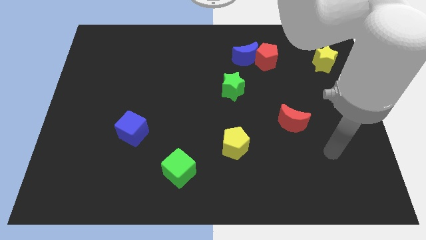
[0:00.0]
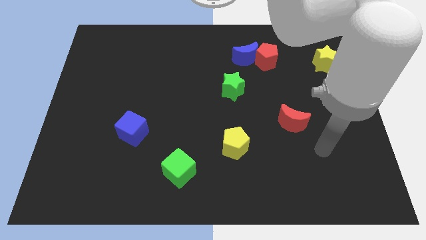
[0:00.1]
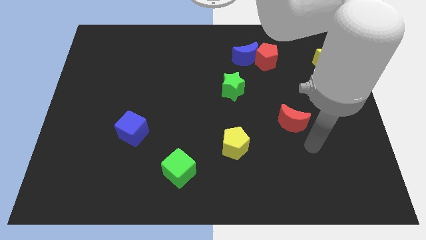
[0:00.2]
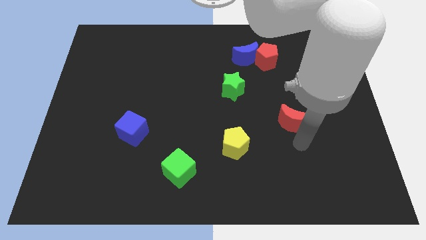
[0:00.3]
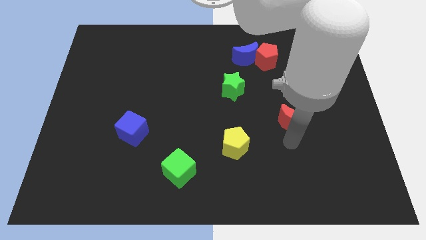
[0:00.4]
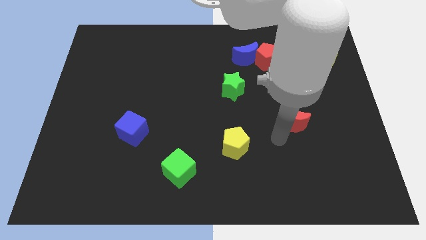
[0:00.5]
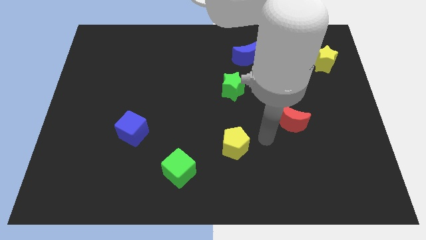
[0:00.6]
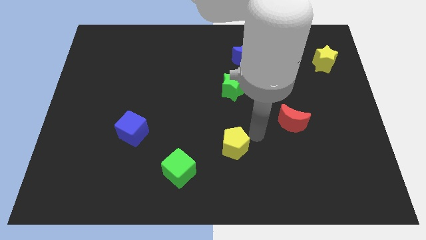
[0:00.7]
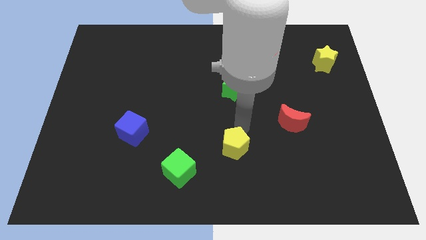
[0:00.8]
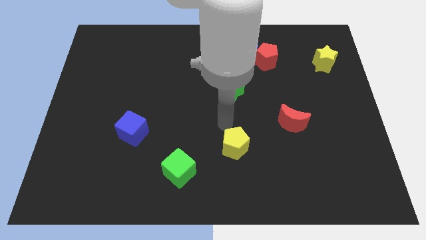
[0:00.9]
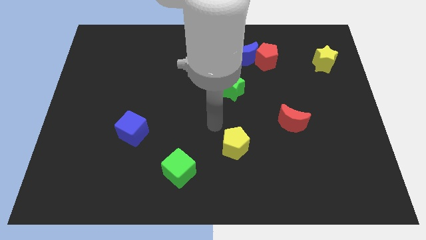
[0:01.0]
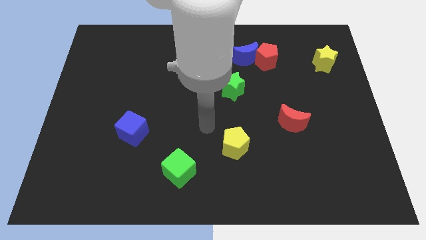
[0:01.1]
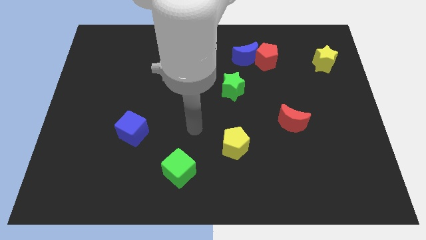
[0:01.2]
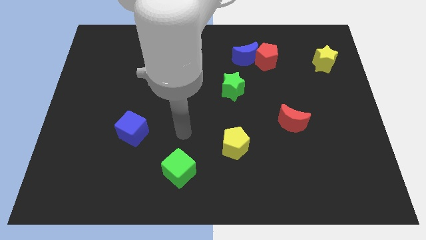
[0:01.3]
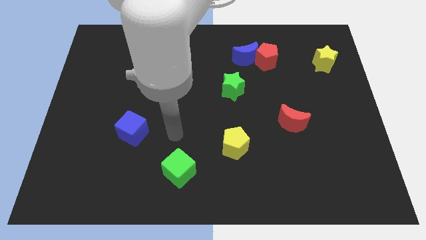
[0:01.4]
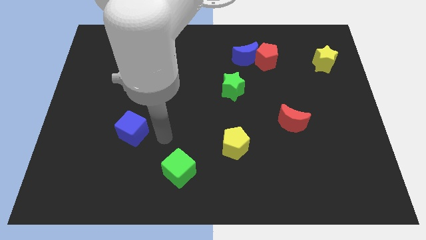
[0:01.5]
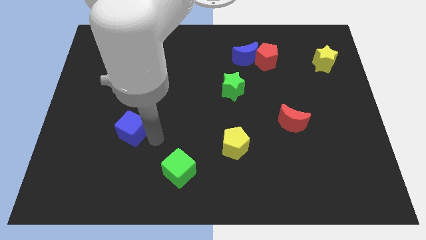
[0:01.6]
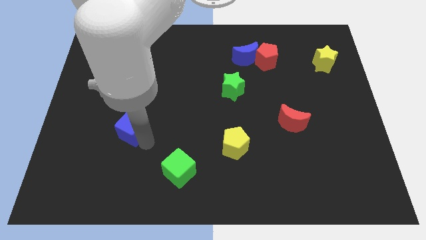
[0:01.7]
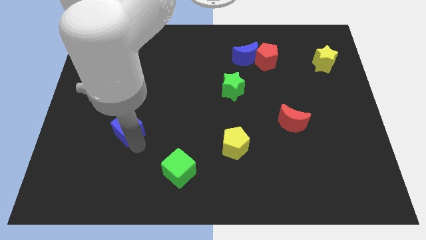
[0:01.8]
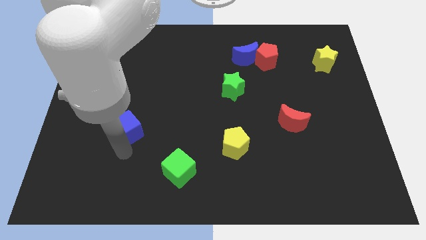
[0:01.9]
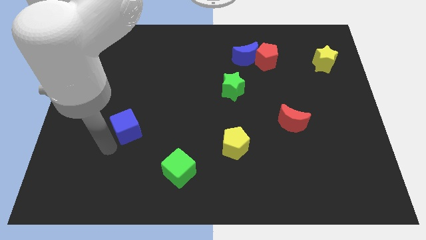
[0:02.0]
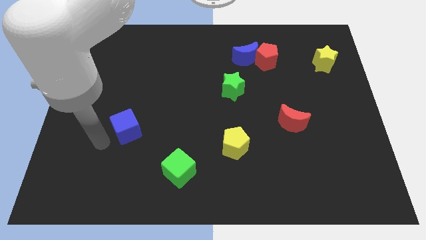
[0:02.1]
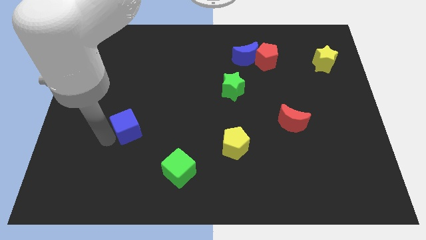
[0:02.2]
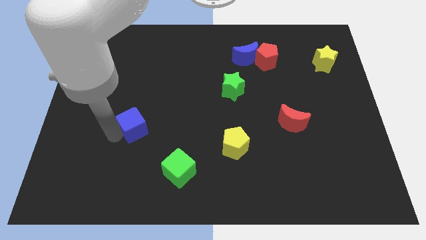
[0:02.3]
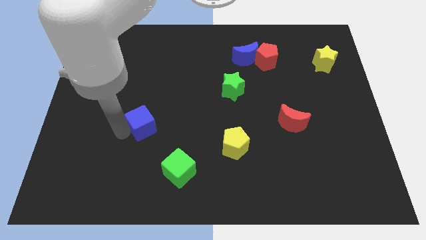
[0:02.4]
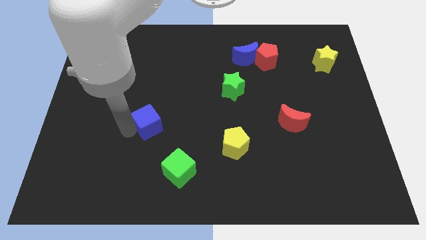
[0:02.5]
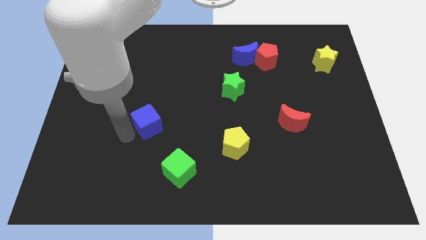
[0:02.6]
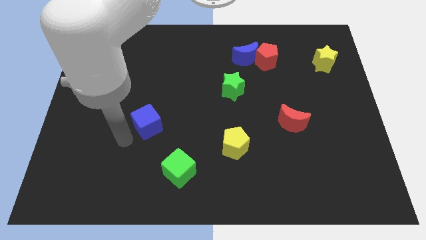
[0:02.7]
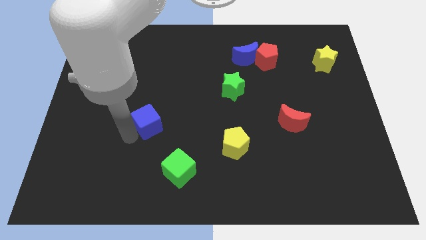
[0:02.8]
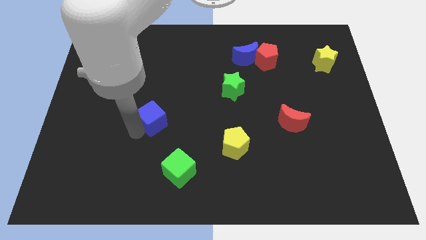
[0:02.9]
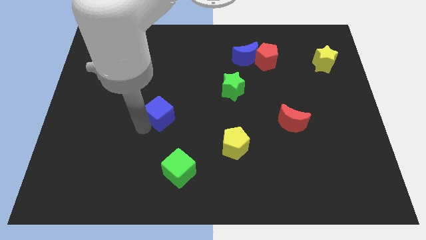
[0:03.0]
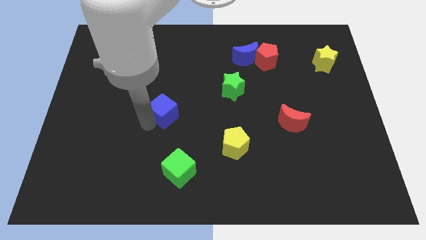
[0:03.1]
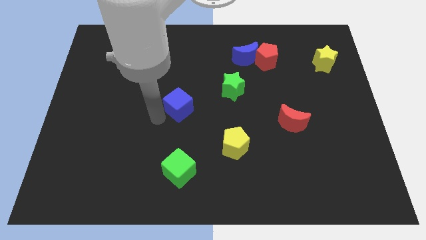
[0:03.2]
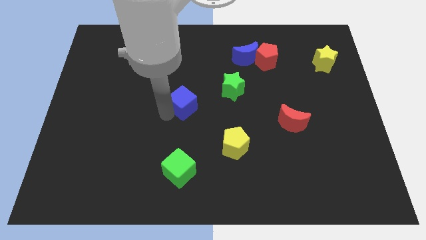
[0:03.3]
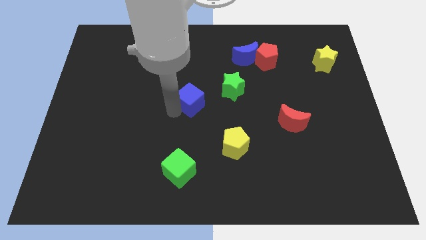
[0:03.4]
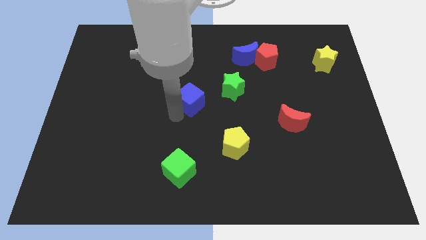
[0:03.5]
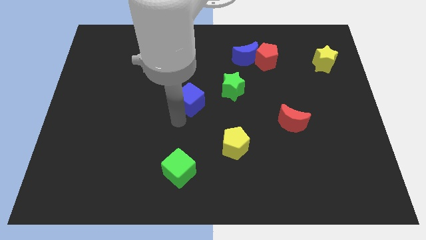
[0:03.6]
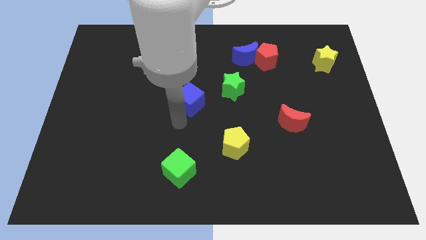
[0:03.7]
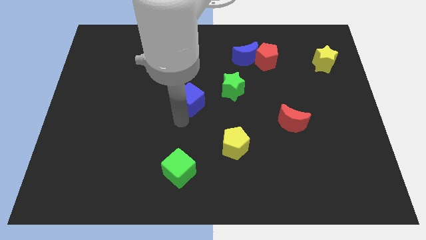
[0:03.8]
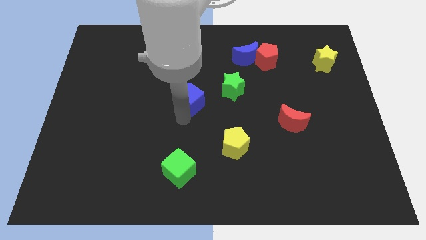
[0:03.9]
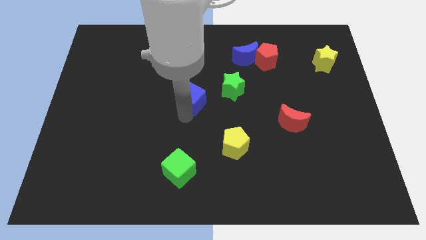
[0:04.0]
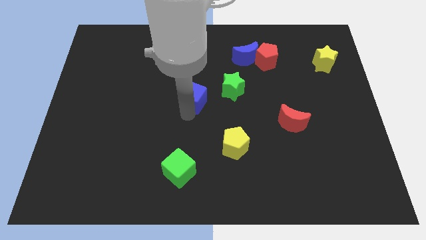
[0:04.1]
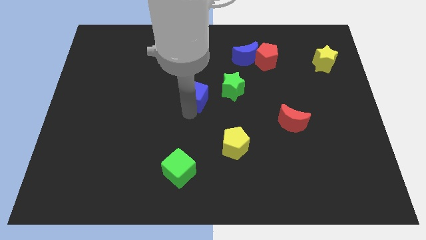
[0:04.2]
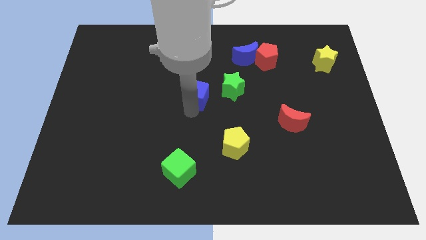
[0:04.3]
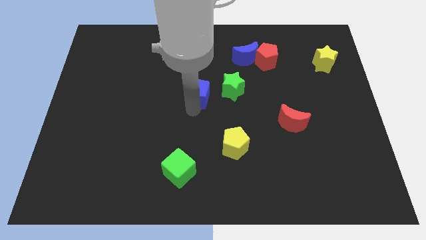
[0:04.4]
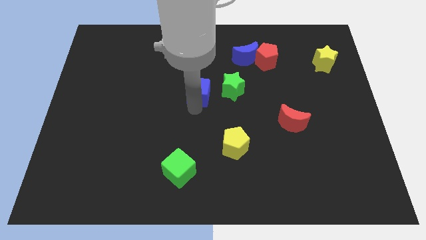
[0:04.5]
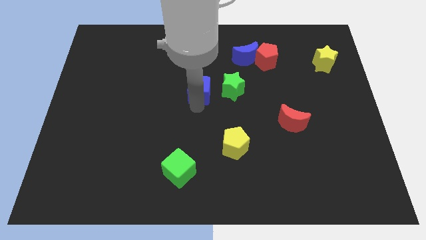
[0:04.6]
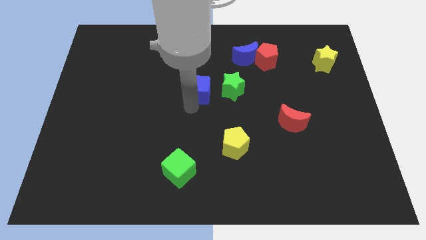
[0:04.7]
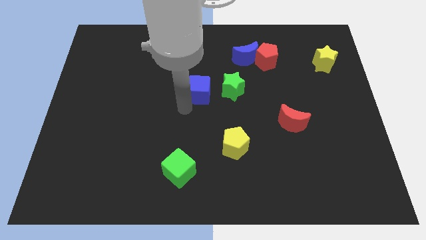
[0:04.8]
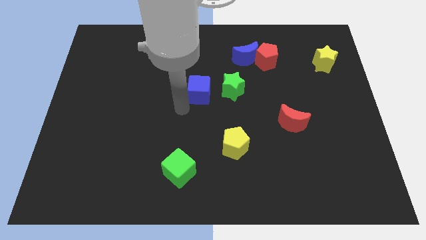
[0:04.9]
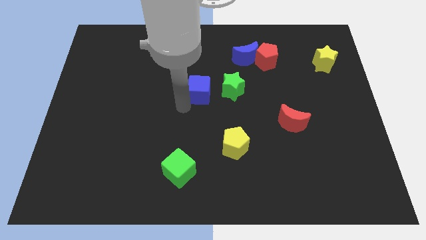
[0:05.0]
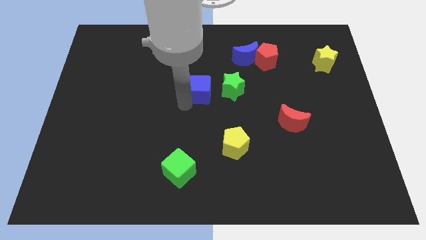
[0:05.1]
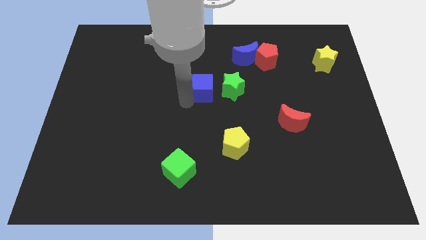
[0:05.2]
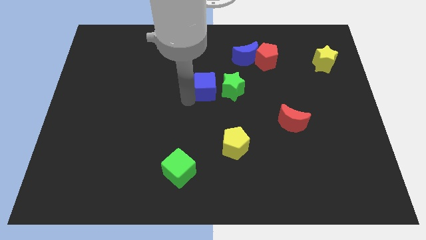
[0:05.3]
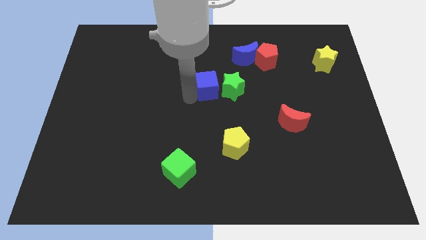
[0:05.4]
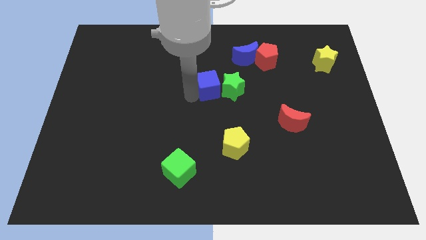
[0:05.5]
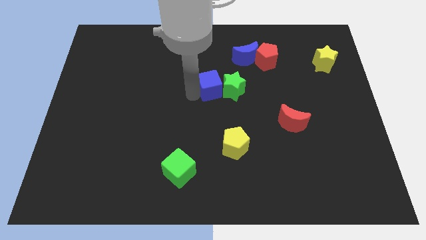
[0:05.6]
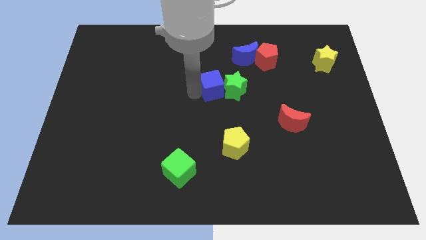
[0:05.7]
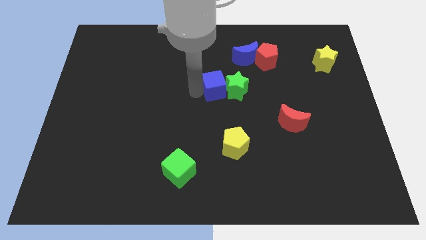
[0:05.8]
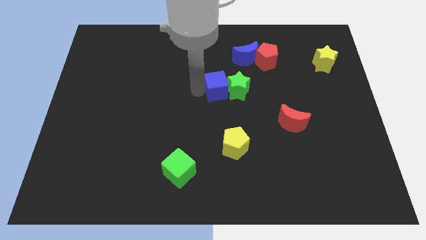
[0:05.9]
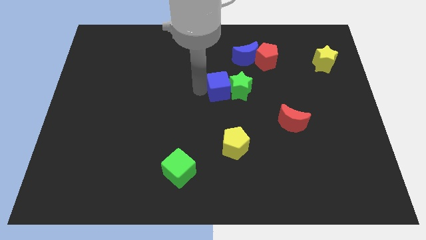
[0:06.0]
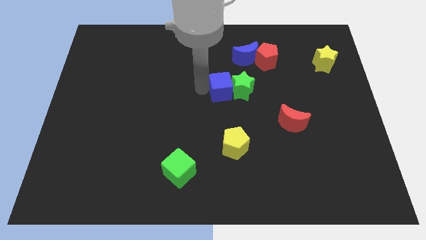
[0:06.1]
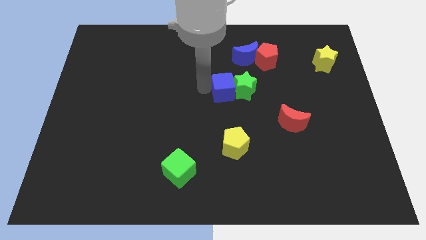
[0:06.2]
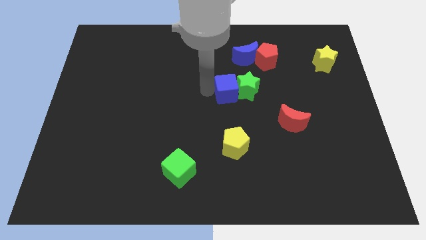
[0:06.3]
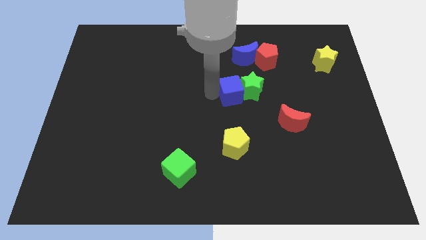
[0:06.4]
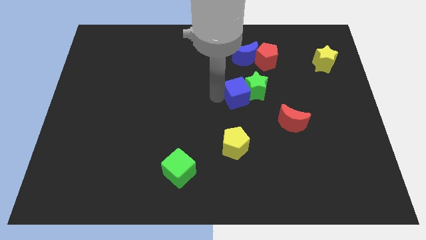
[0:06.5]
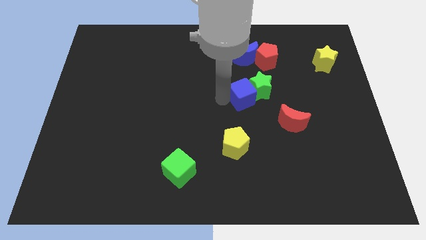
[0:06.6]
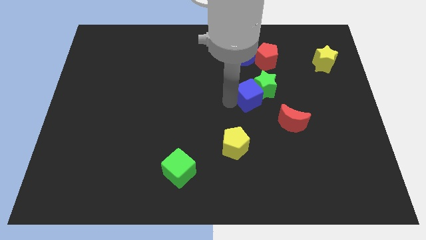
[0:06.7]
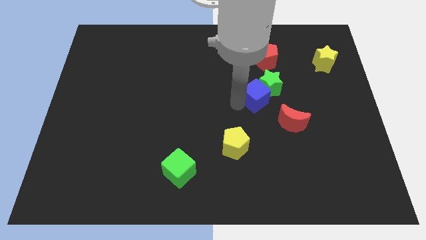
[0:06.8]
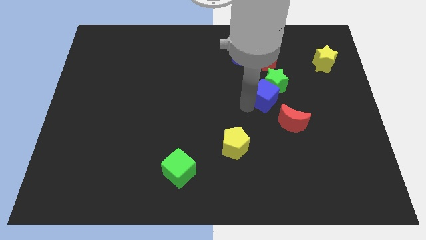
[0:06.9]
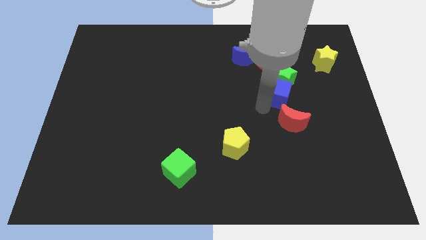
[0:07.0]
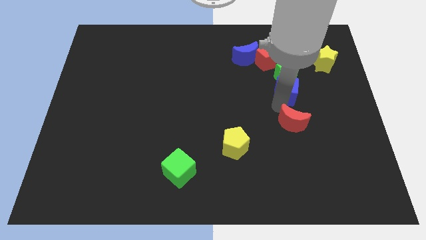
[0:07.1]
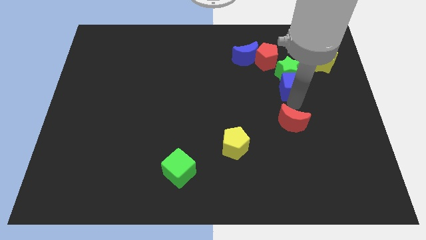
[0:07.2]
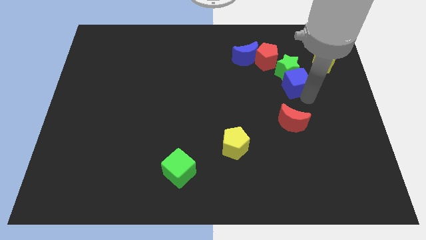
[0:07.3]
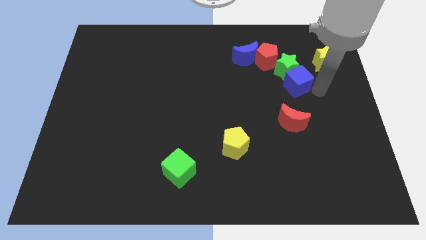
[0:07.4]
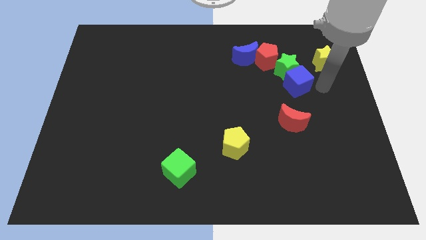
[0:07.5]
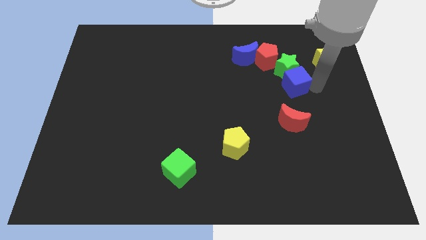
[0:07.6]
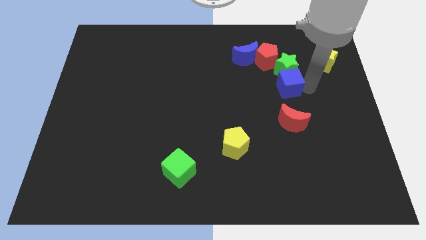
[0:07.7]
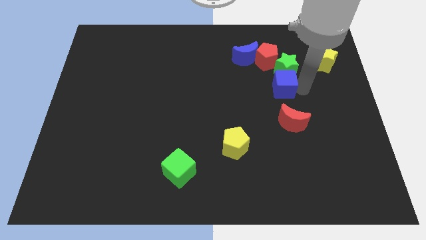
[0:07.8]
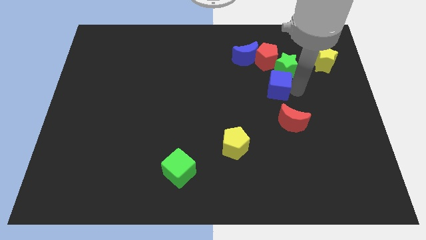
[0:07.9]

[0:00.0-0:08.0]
put the blue cube diagonally down and to the right of the blue moon
